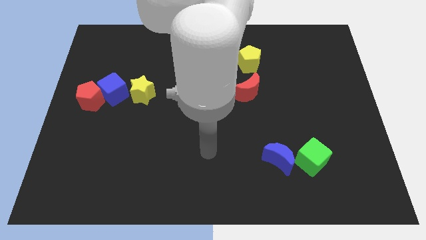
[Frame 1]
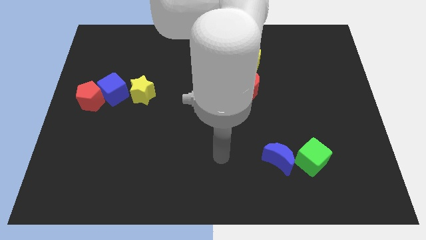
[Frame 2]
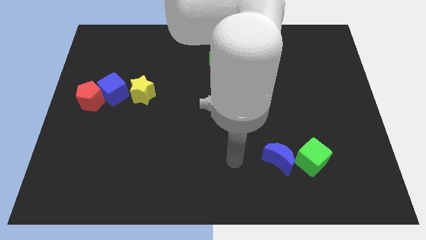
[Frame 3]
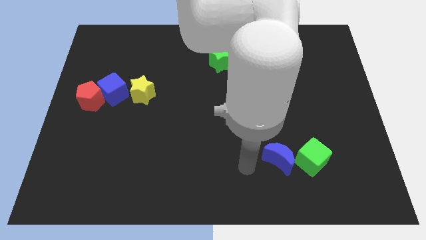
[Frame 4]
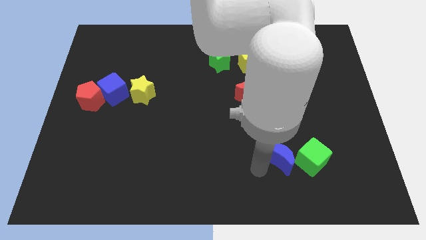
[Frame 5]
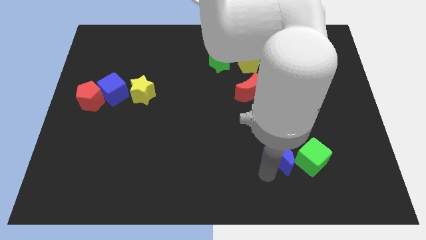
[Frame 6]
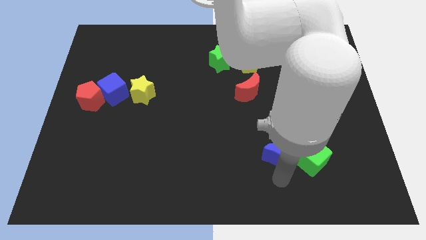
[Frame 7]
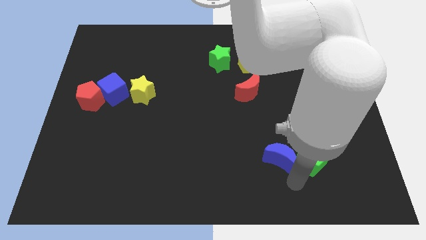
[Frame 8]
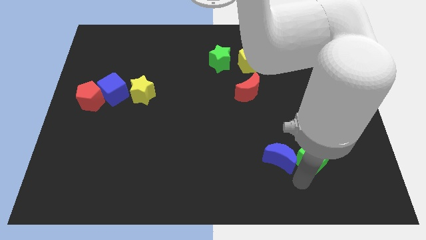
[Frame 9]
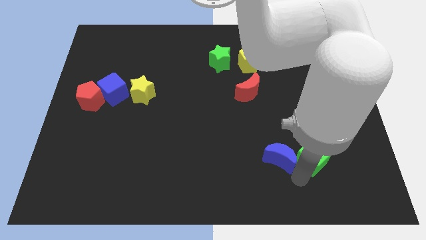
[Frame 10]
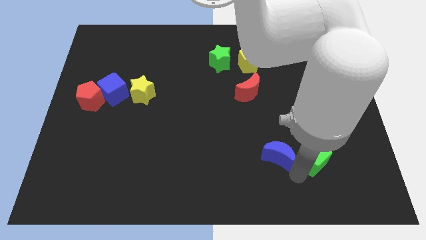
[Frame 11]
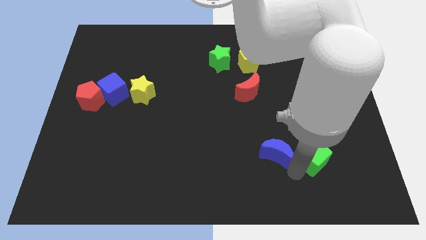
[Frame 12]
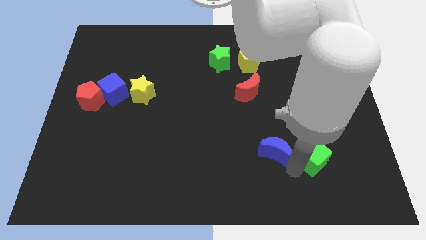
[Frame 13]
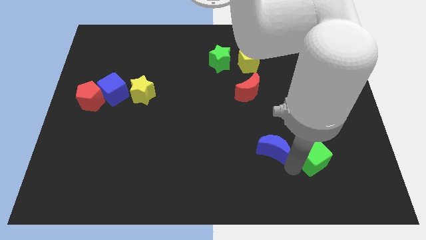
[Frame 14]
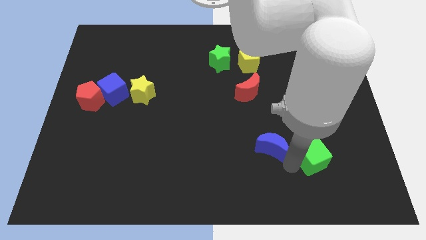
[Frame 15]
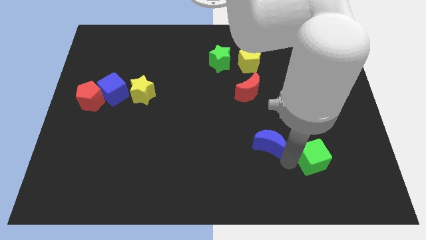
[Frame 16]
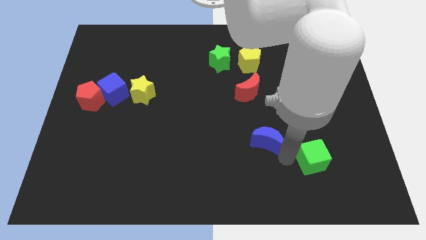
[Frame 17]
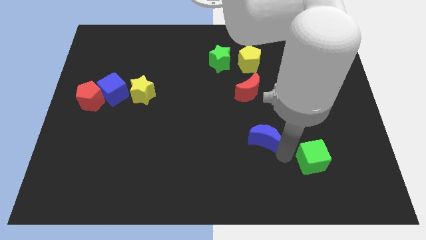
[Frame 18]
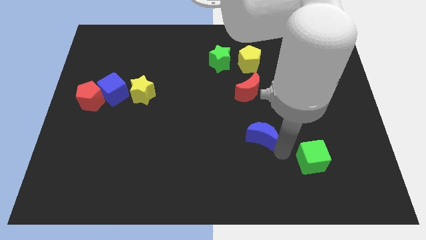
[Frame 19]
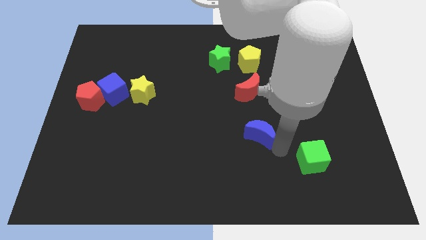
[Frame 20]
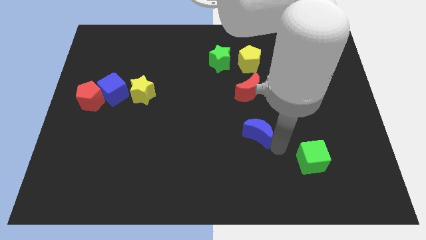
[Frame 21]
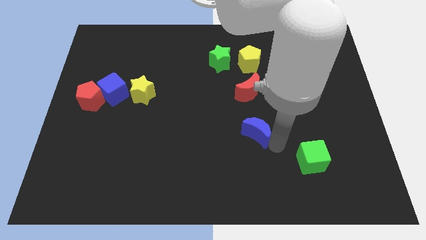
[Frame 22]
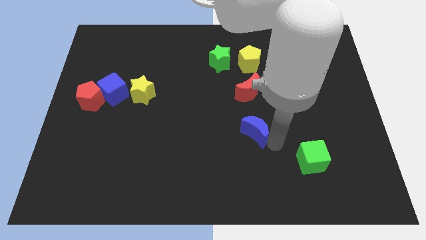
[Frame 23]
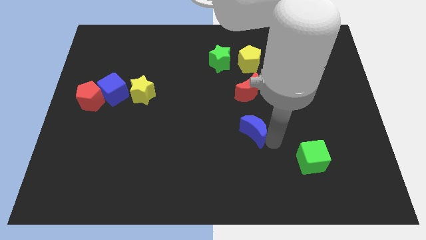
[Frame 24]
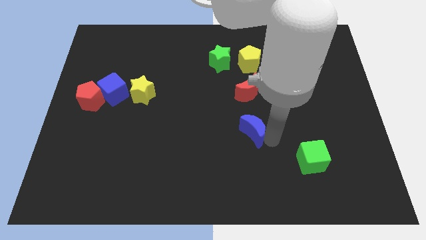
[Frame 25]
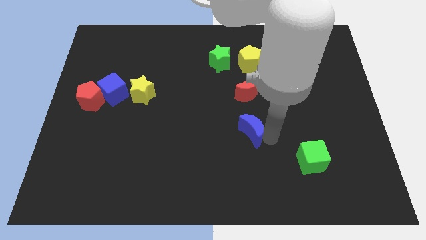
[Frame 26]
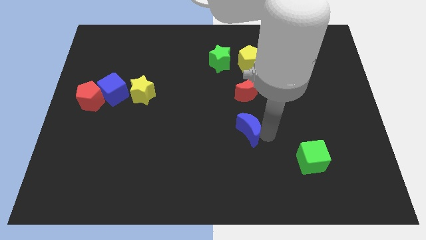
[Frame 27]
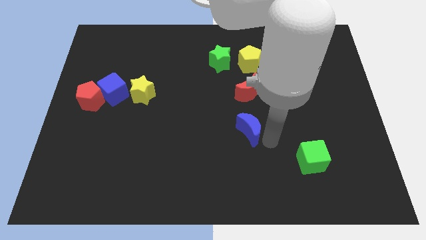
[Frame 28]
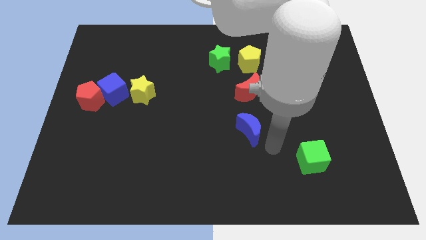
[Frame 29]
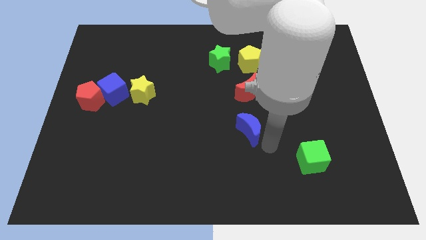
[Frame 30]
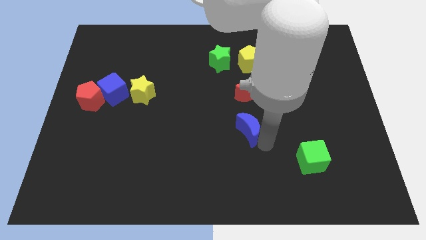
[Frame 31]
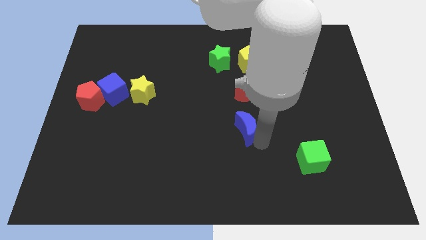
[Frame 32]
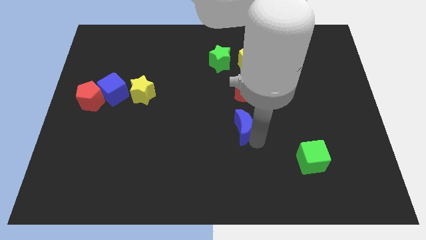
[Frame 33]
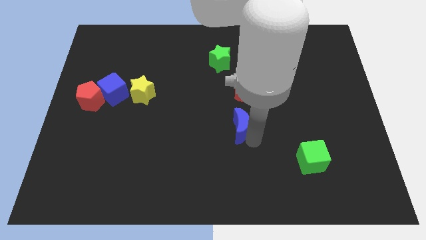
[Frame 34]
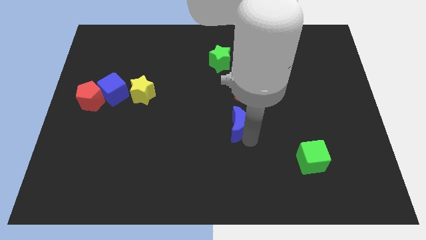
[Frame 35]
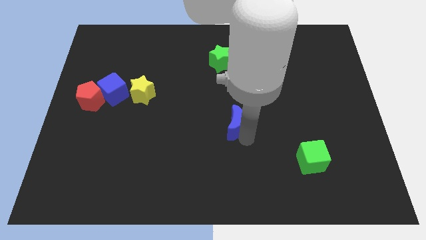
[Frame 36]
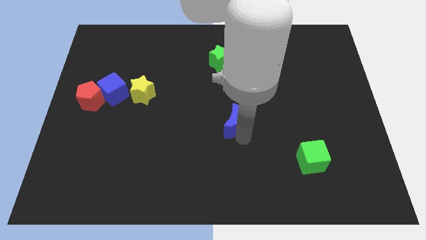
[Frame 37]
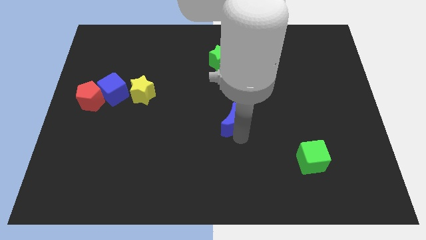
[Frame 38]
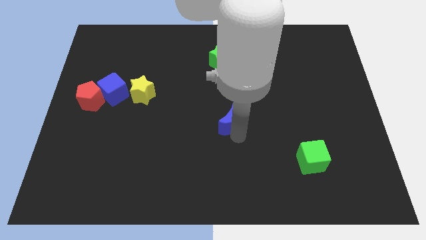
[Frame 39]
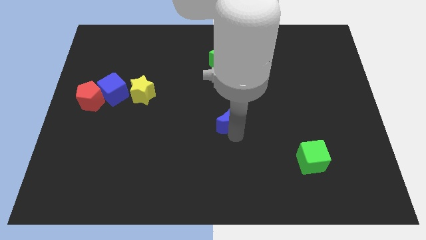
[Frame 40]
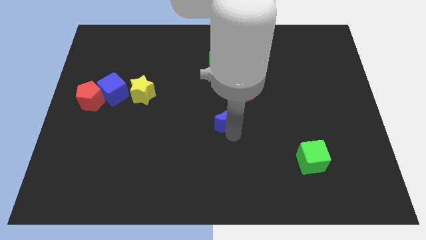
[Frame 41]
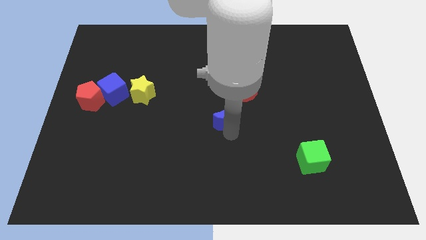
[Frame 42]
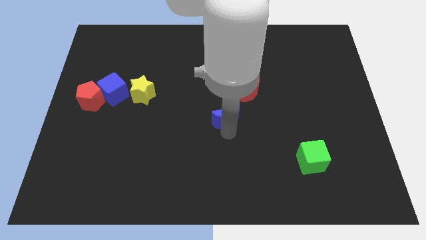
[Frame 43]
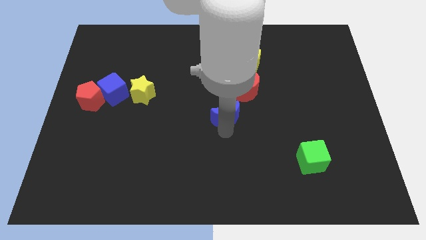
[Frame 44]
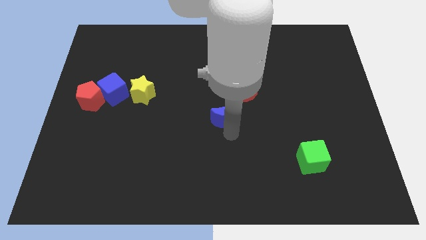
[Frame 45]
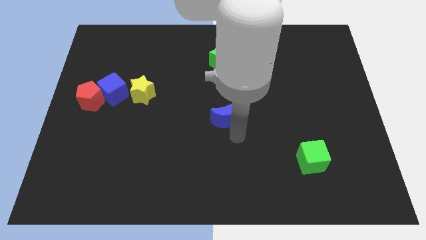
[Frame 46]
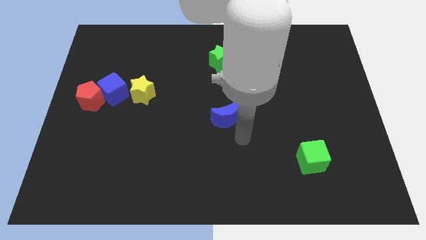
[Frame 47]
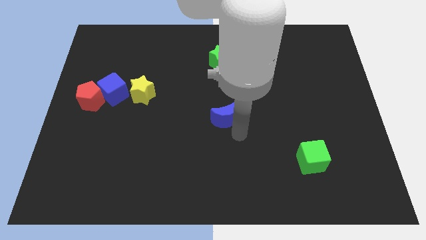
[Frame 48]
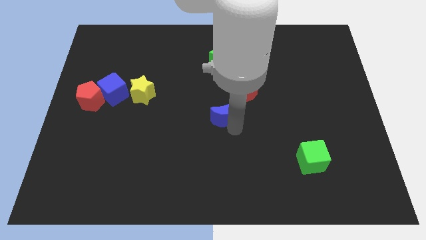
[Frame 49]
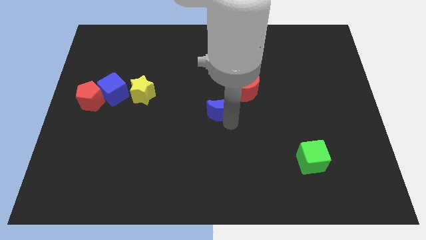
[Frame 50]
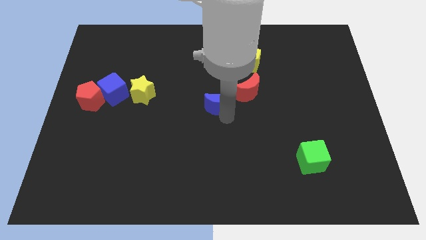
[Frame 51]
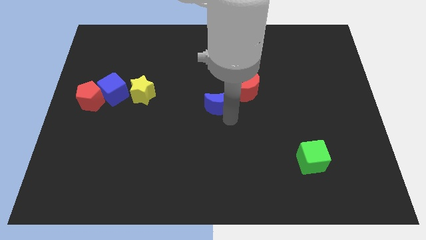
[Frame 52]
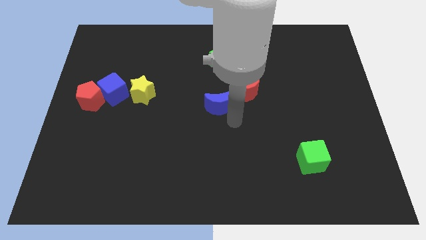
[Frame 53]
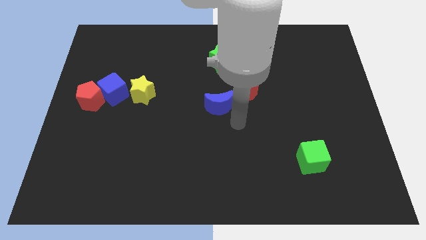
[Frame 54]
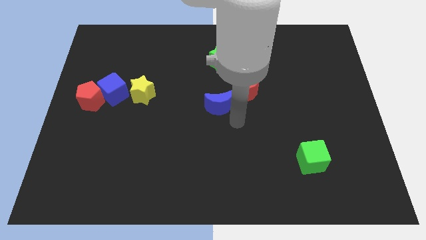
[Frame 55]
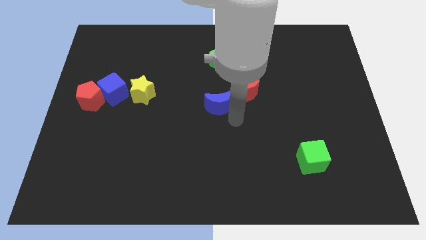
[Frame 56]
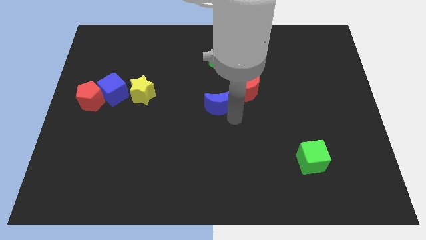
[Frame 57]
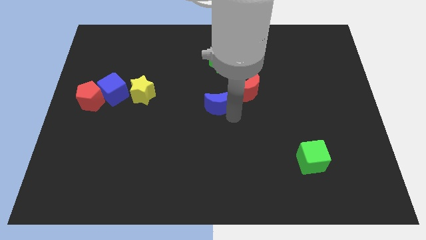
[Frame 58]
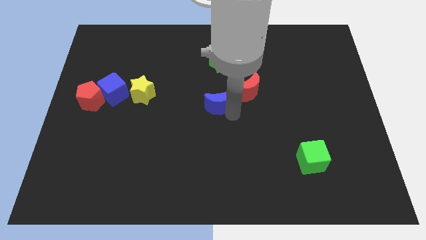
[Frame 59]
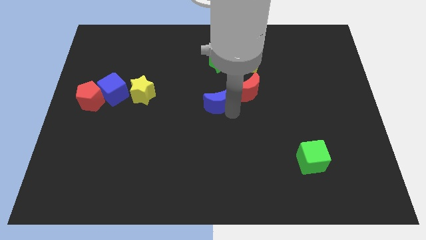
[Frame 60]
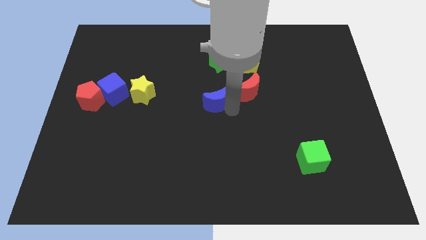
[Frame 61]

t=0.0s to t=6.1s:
push the blue moon upwards and left diagonally

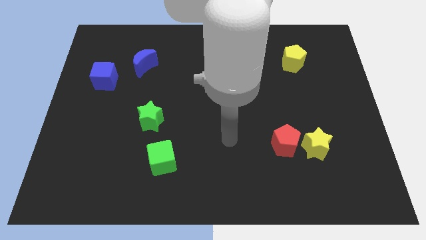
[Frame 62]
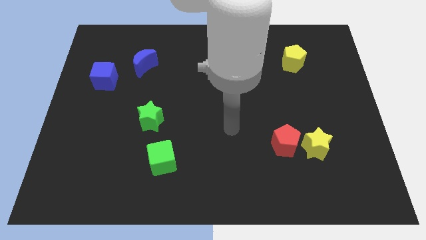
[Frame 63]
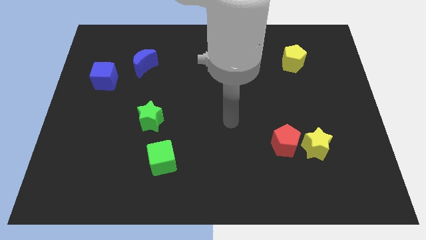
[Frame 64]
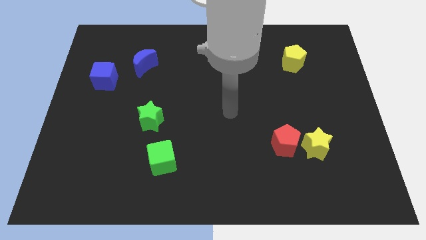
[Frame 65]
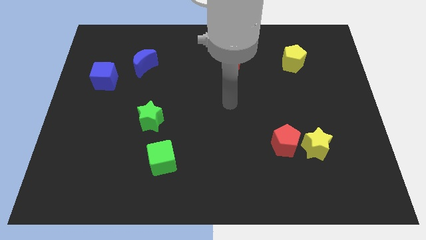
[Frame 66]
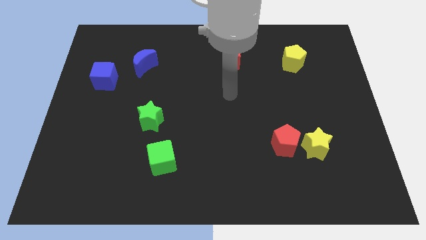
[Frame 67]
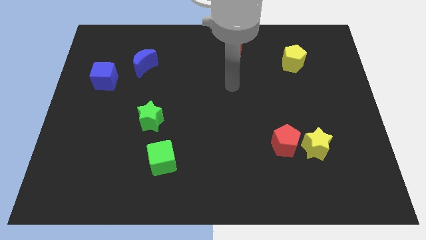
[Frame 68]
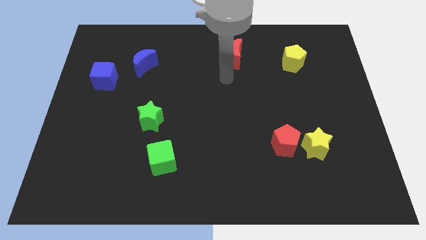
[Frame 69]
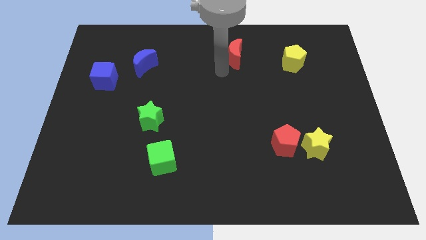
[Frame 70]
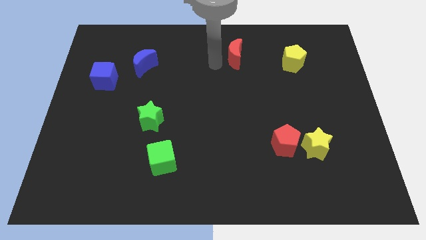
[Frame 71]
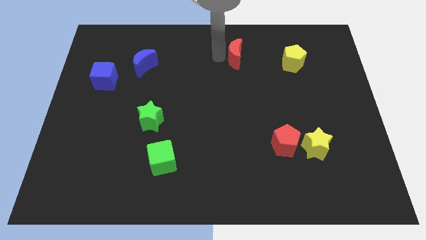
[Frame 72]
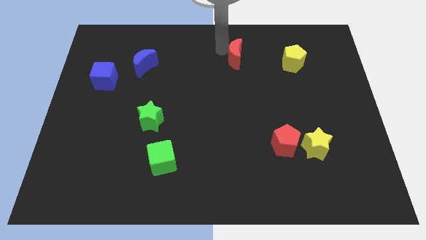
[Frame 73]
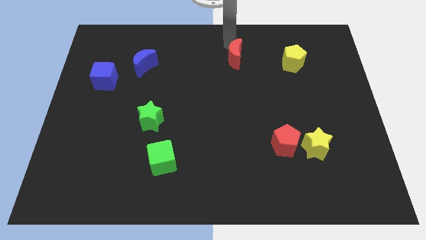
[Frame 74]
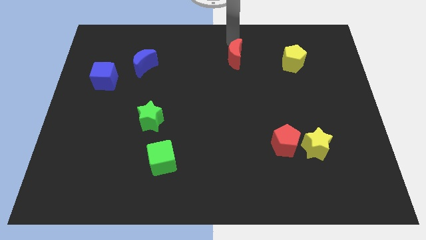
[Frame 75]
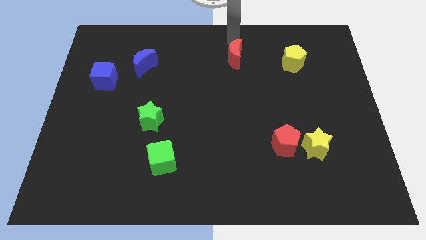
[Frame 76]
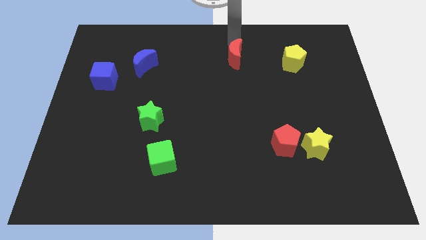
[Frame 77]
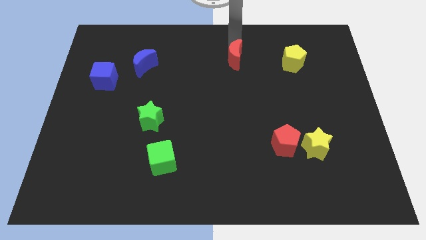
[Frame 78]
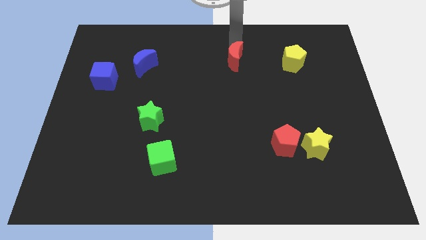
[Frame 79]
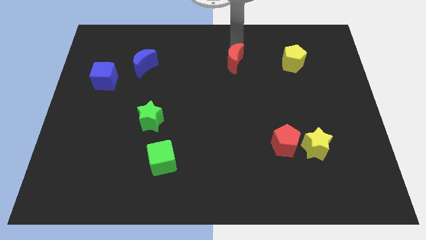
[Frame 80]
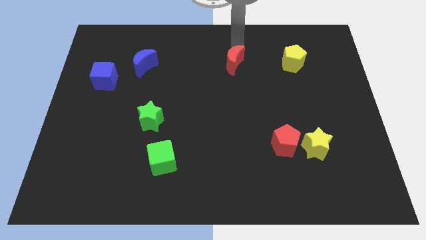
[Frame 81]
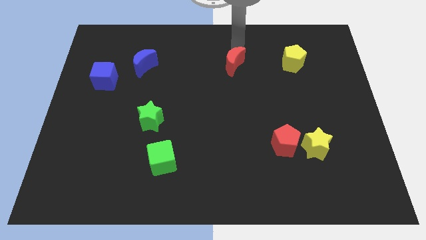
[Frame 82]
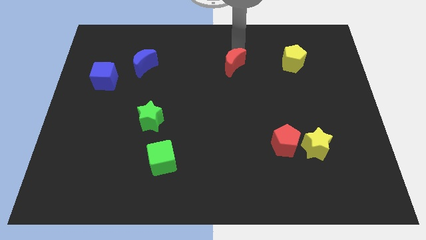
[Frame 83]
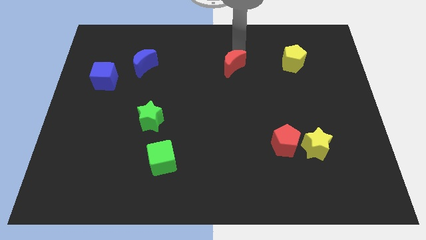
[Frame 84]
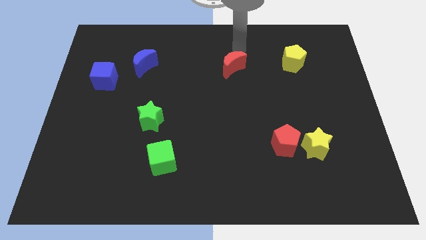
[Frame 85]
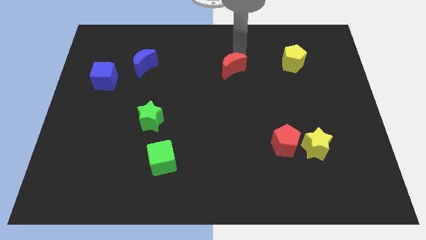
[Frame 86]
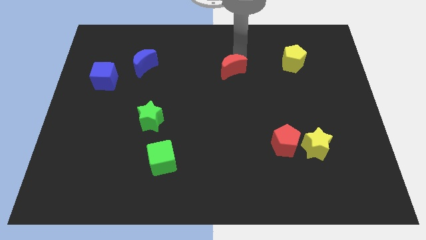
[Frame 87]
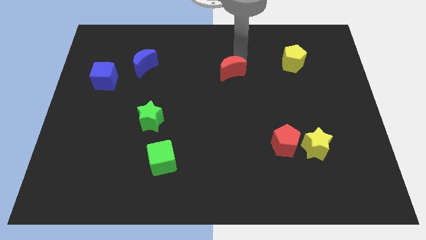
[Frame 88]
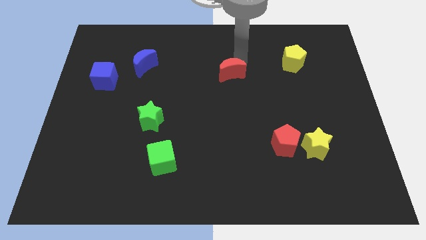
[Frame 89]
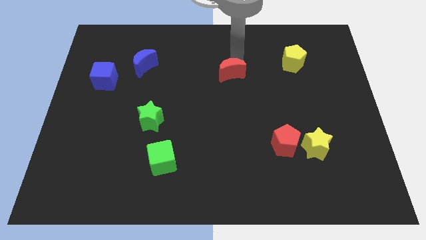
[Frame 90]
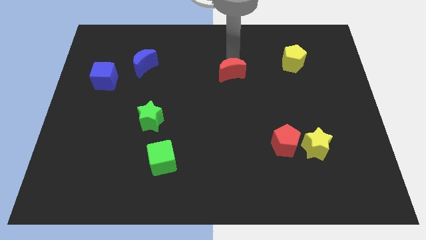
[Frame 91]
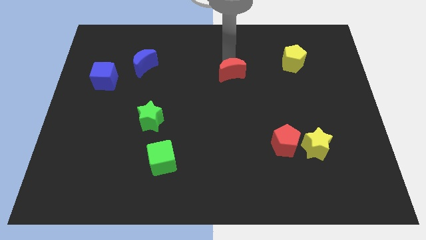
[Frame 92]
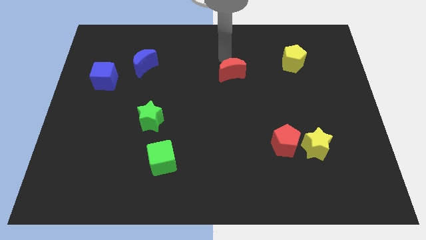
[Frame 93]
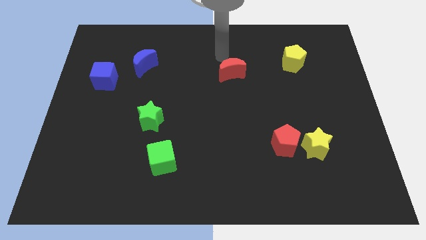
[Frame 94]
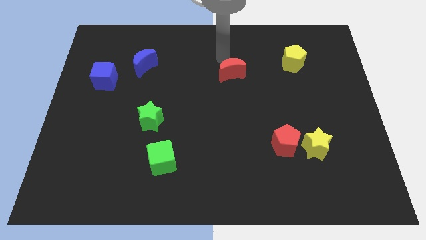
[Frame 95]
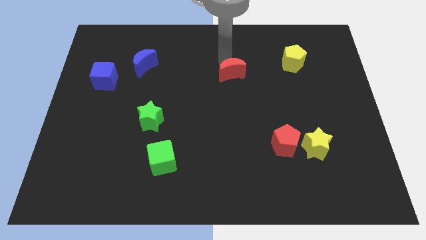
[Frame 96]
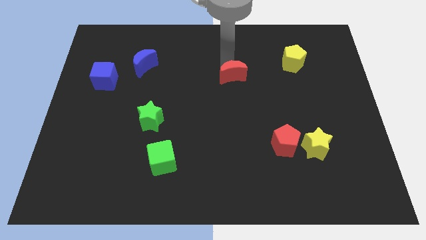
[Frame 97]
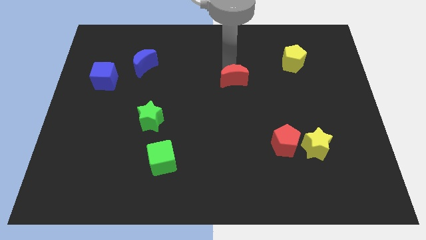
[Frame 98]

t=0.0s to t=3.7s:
move the red moon down somewhat
